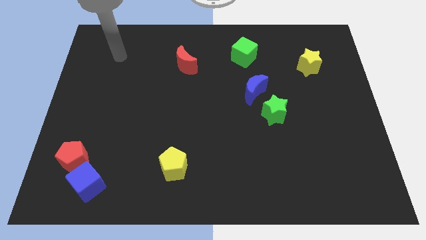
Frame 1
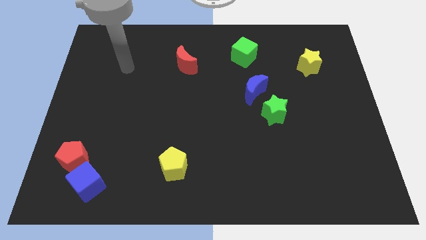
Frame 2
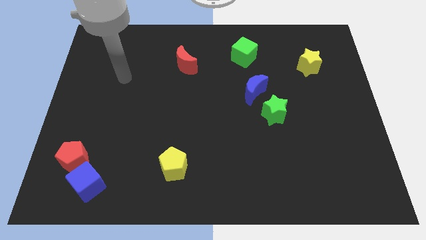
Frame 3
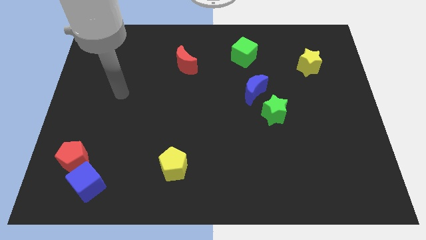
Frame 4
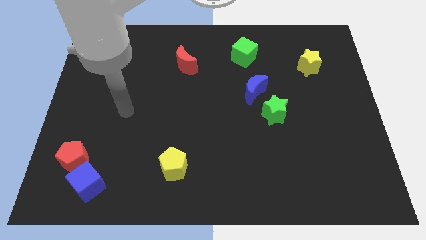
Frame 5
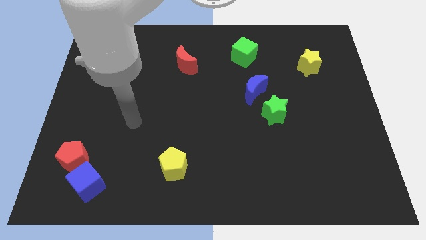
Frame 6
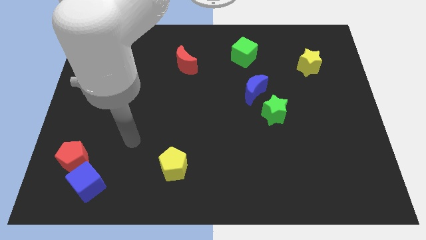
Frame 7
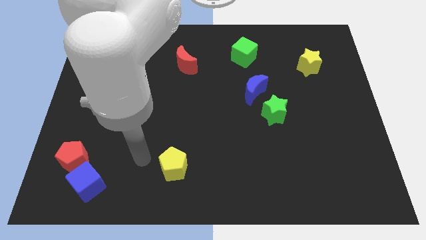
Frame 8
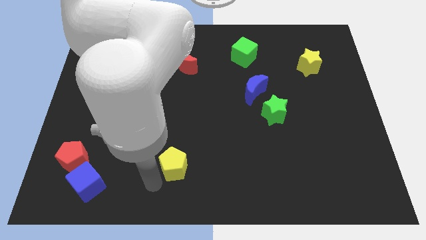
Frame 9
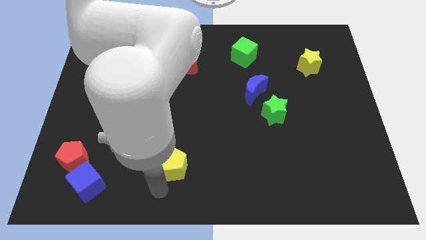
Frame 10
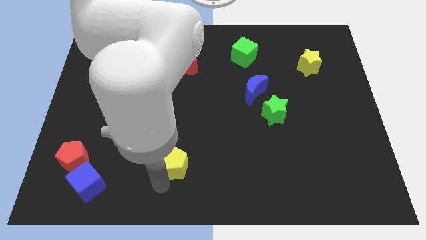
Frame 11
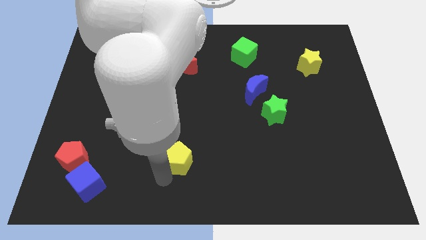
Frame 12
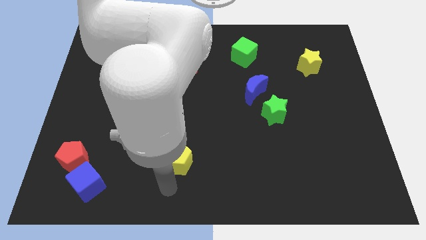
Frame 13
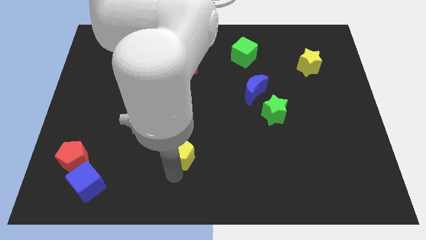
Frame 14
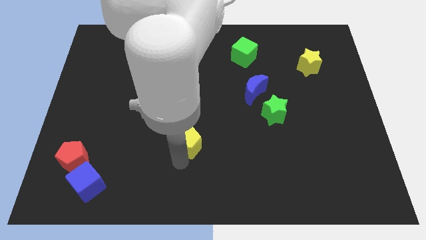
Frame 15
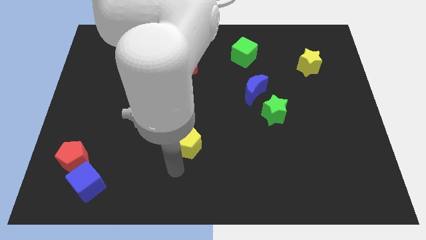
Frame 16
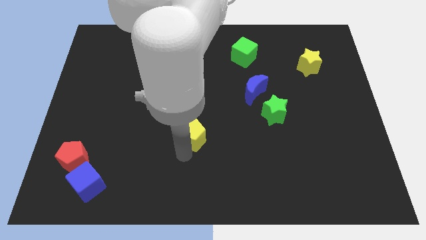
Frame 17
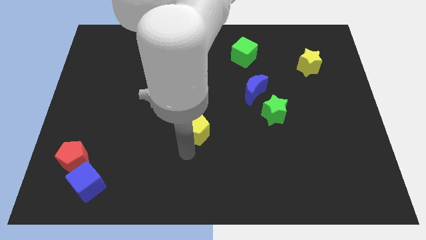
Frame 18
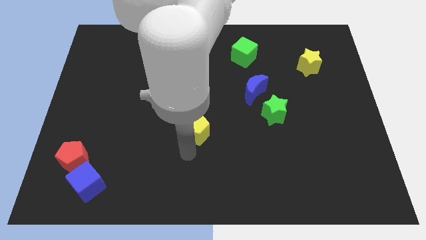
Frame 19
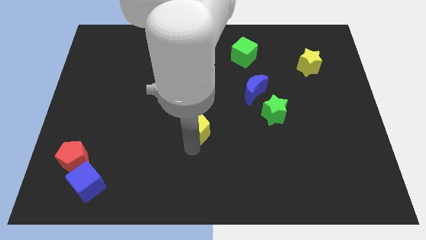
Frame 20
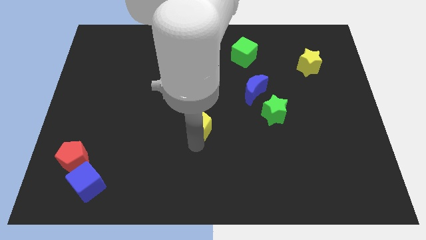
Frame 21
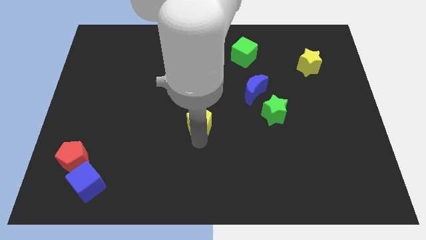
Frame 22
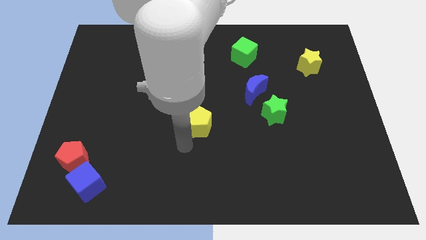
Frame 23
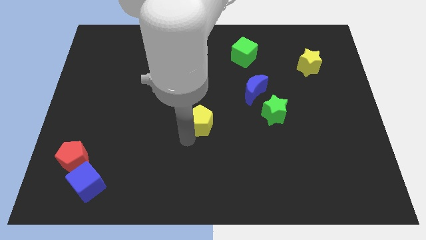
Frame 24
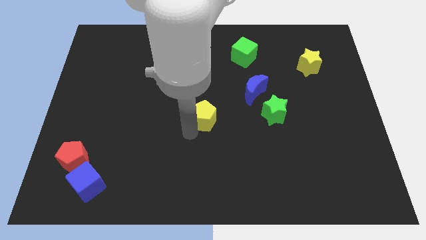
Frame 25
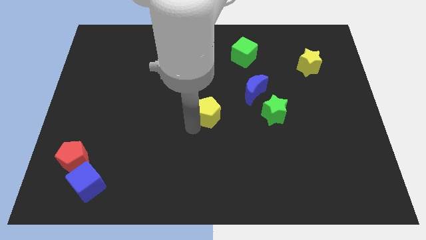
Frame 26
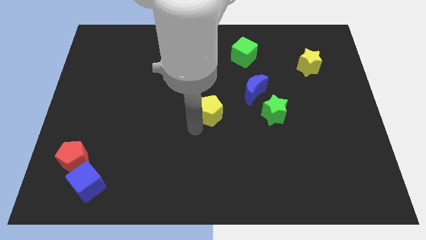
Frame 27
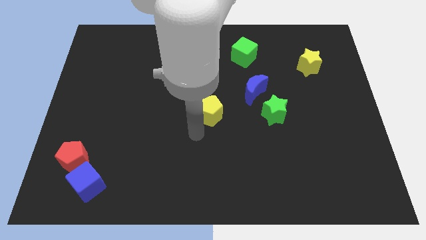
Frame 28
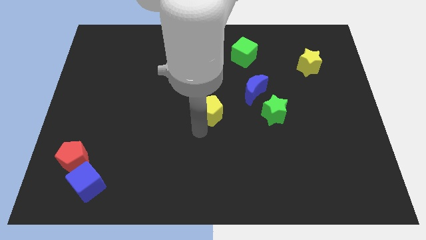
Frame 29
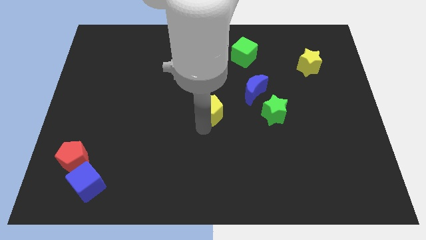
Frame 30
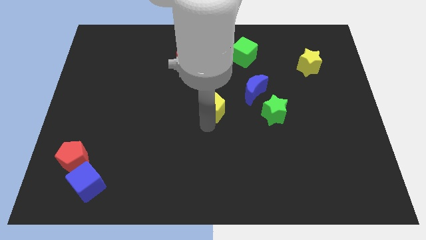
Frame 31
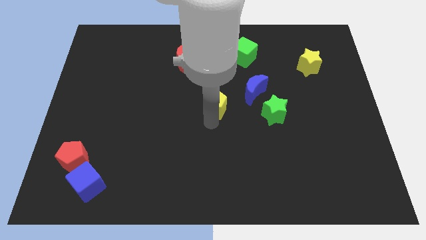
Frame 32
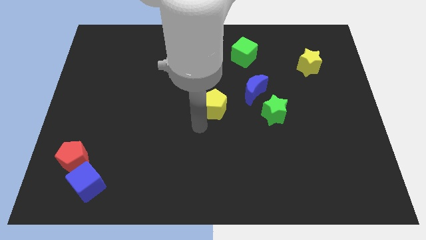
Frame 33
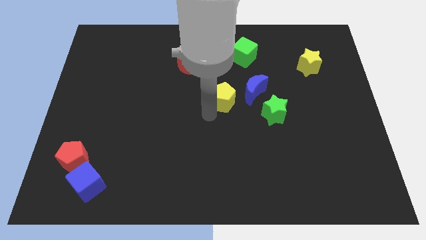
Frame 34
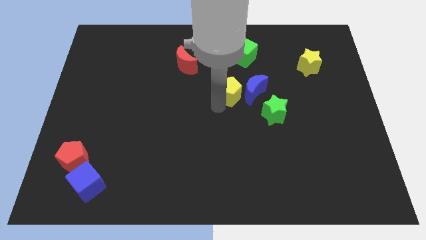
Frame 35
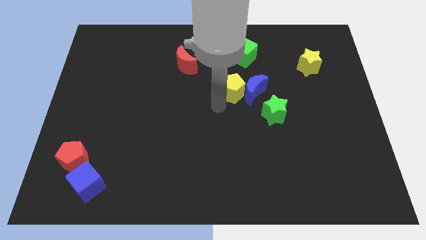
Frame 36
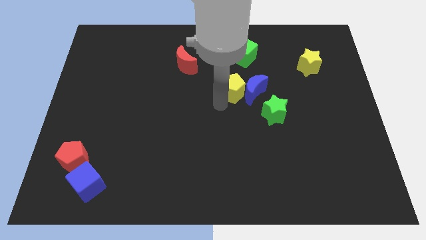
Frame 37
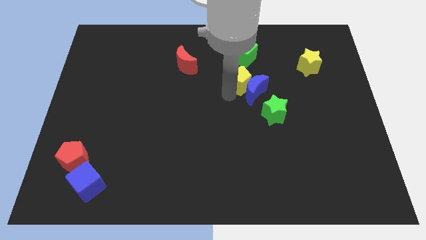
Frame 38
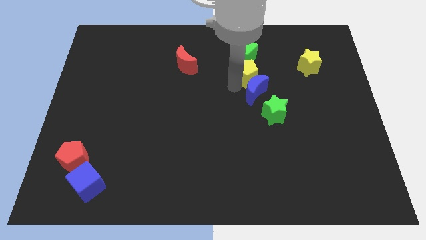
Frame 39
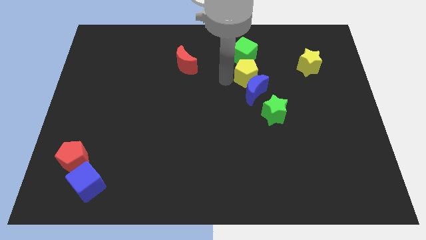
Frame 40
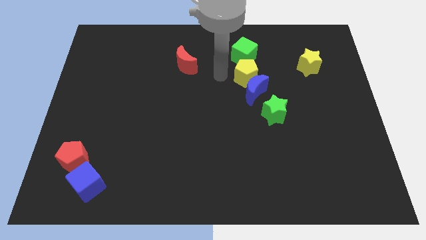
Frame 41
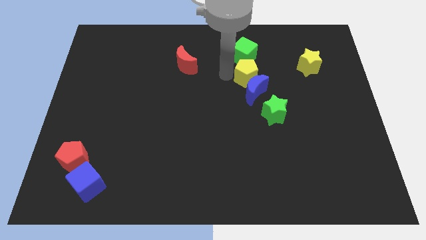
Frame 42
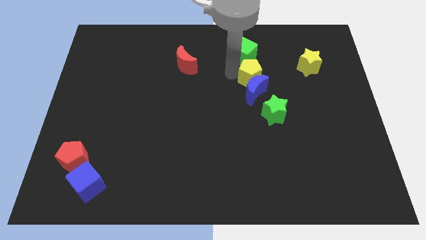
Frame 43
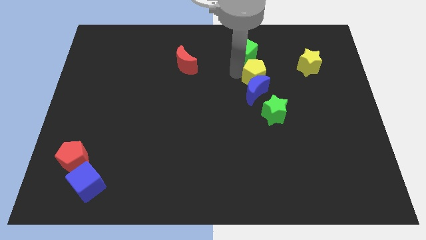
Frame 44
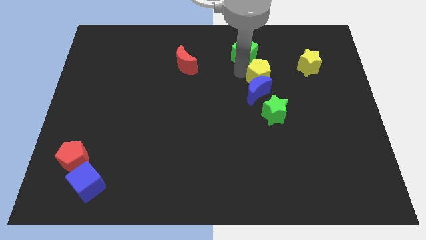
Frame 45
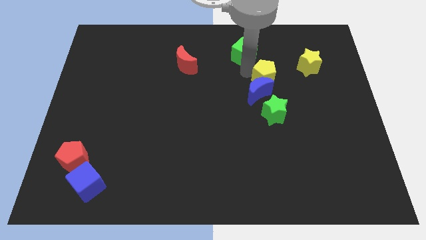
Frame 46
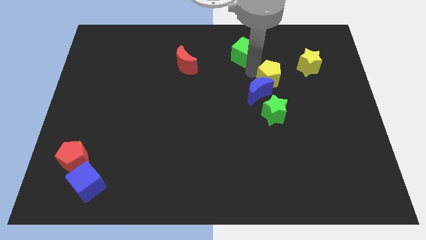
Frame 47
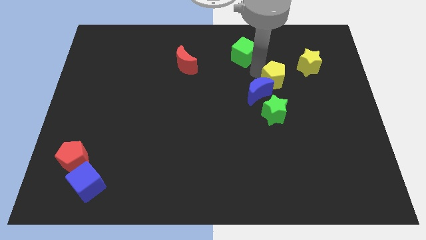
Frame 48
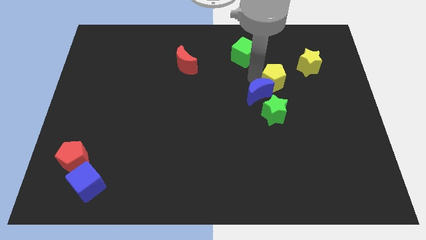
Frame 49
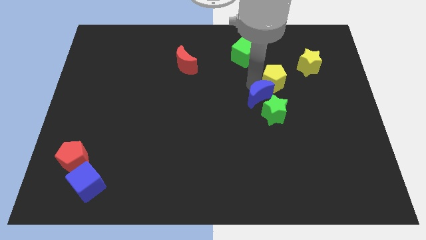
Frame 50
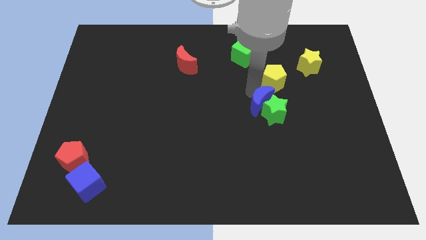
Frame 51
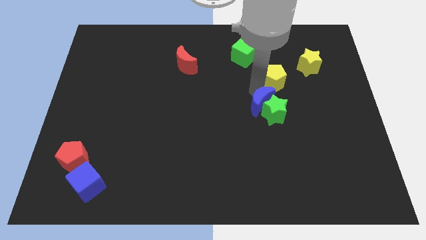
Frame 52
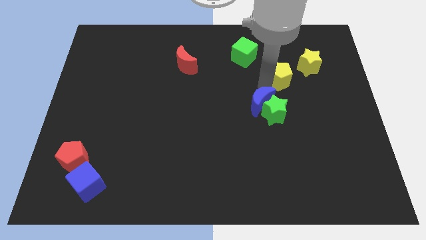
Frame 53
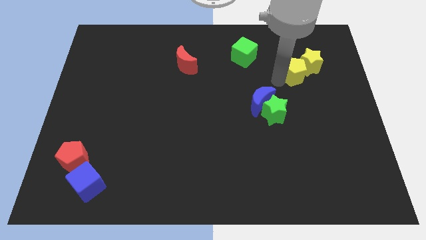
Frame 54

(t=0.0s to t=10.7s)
put the yellow pentagon next to the yellow star

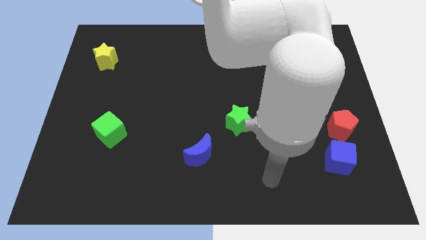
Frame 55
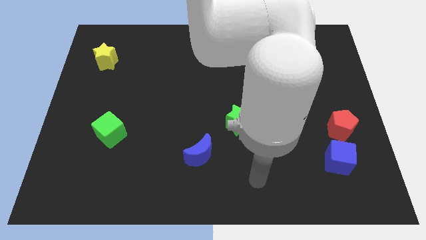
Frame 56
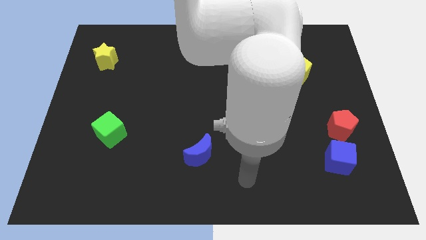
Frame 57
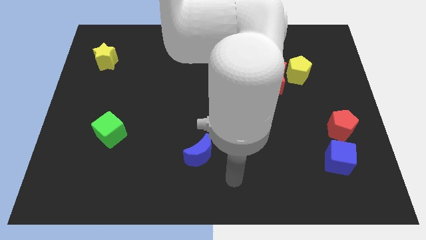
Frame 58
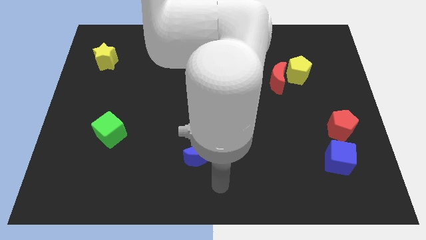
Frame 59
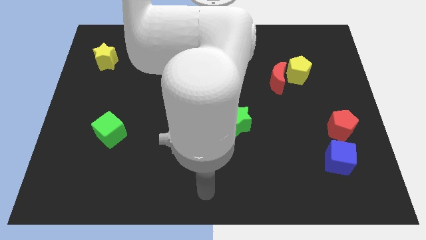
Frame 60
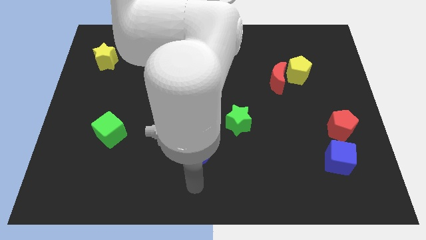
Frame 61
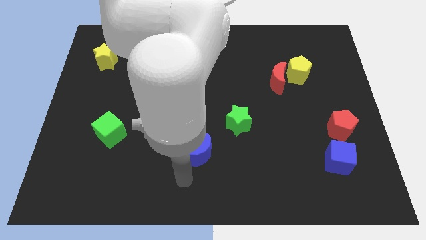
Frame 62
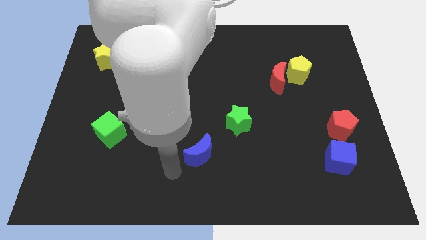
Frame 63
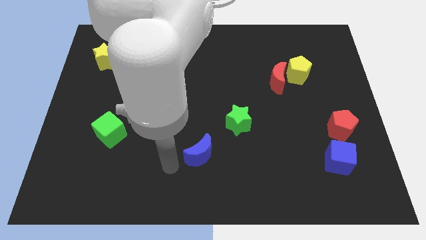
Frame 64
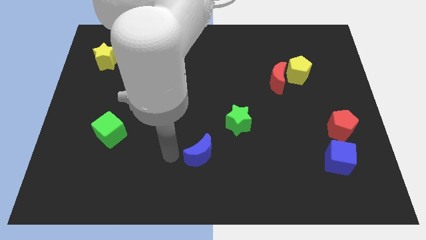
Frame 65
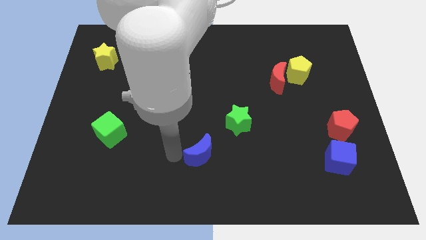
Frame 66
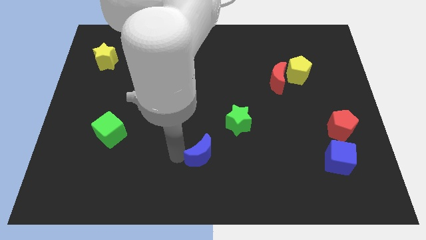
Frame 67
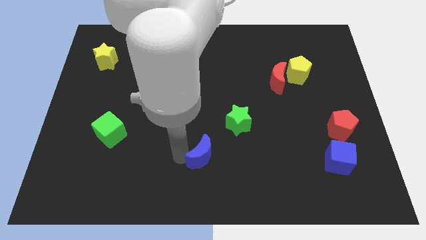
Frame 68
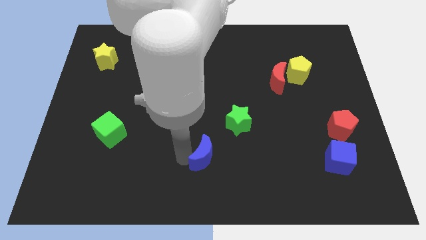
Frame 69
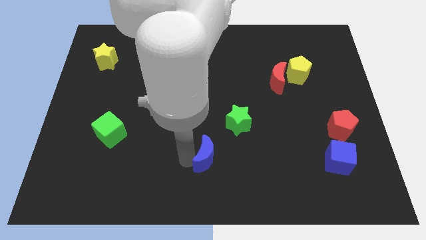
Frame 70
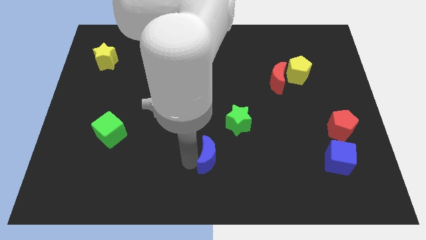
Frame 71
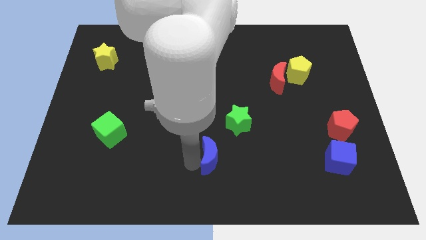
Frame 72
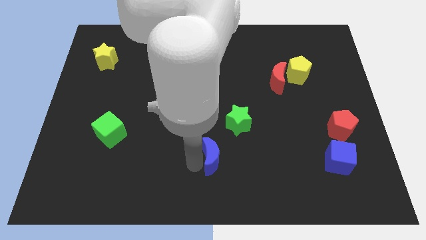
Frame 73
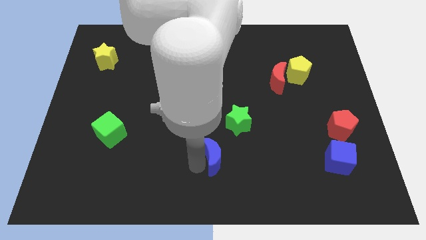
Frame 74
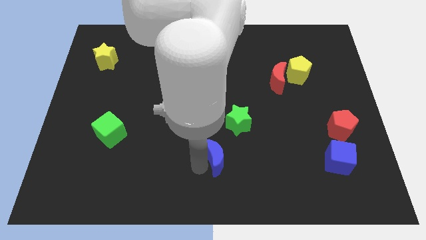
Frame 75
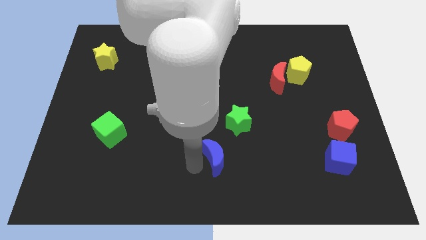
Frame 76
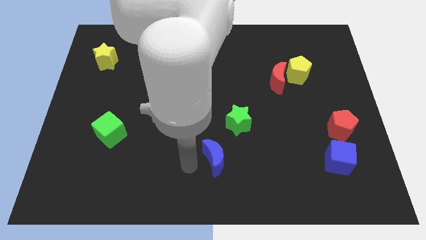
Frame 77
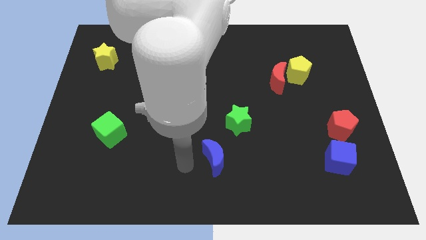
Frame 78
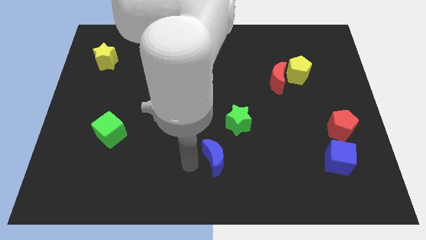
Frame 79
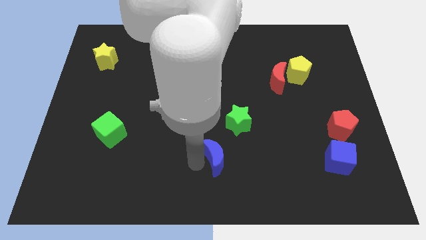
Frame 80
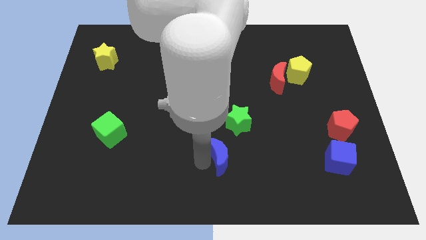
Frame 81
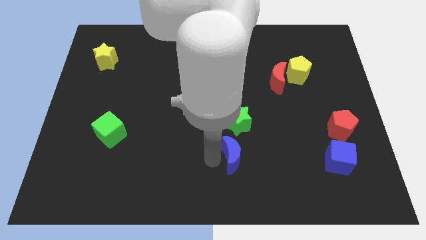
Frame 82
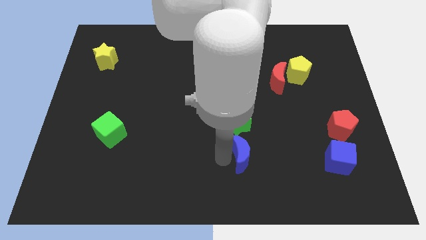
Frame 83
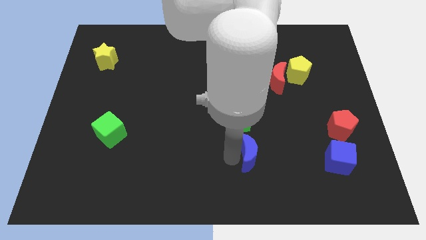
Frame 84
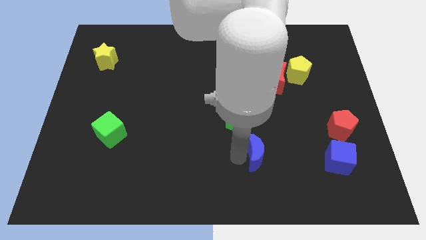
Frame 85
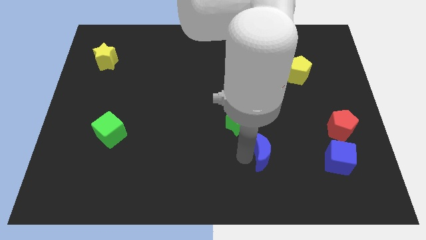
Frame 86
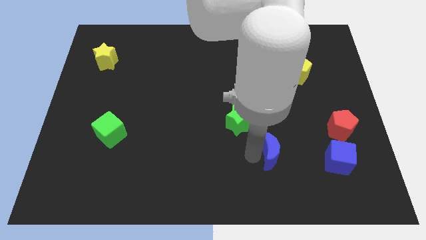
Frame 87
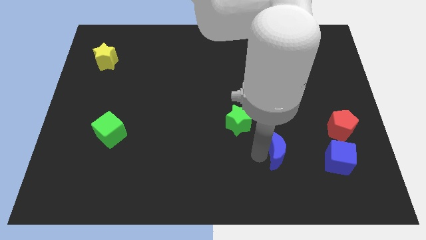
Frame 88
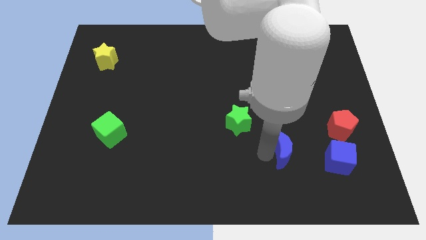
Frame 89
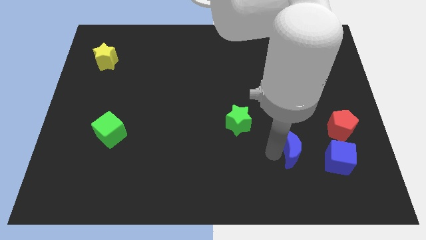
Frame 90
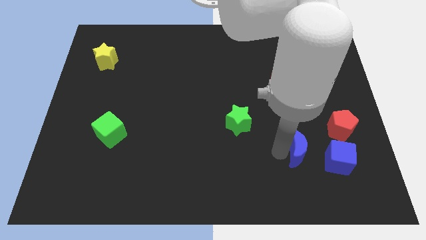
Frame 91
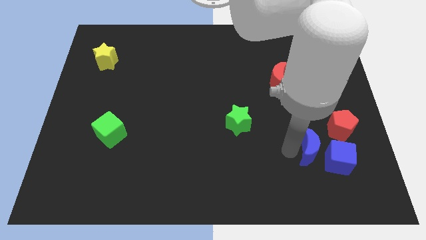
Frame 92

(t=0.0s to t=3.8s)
put the blue moon towards the blue cube
